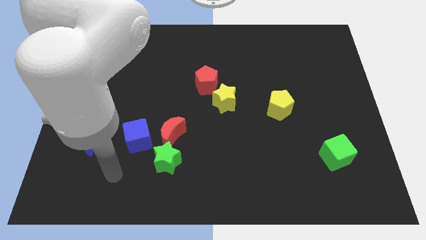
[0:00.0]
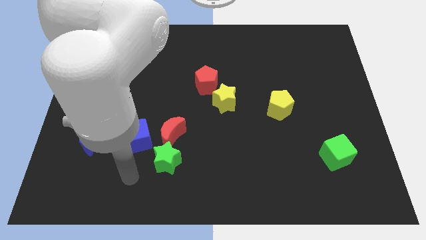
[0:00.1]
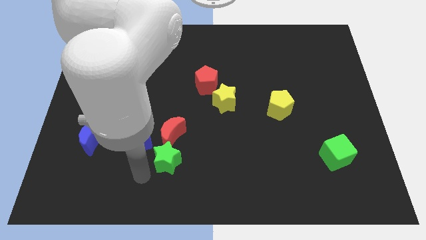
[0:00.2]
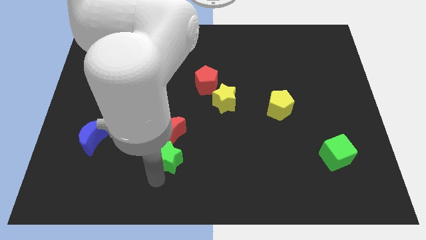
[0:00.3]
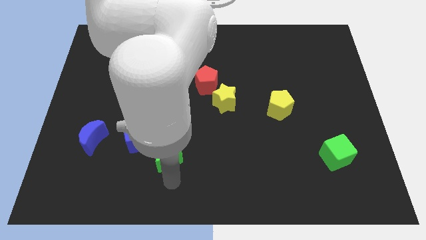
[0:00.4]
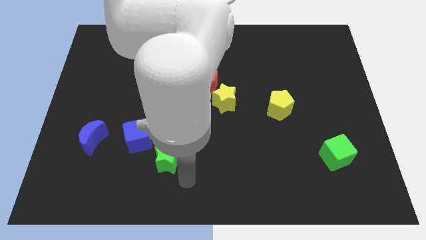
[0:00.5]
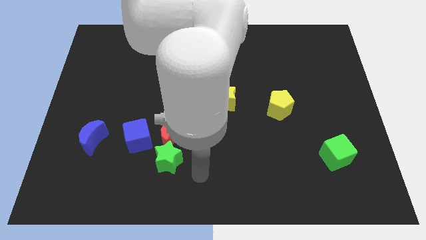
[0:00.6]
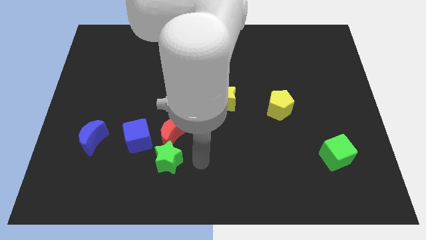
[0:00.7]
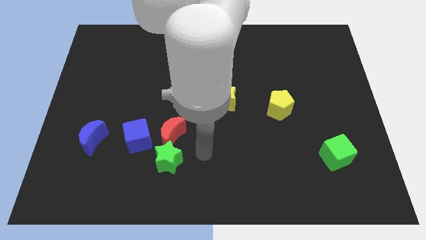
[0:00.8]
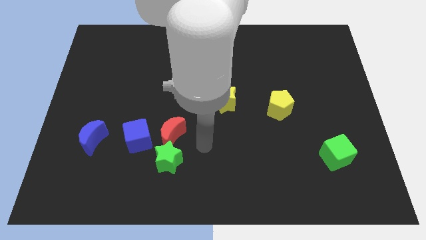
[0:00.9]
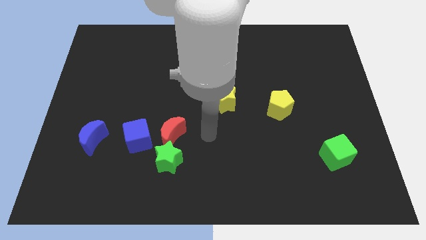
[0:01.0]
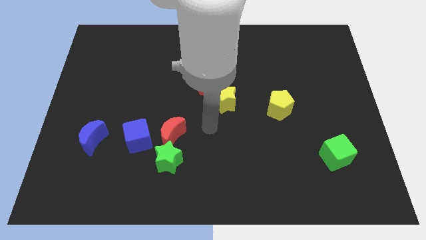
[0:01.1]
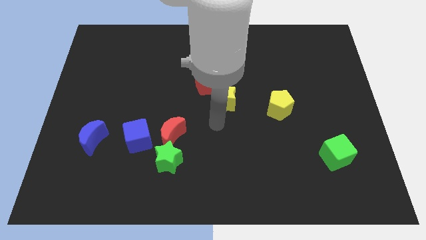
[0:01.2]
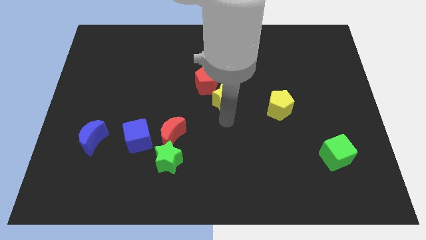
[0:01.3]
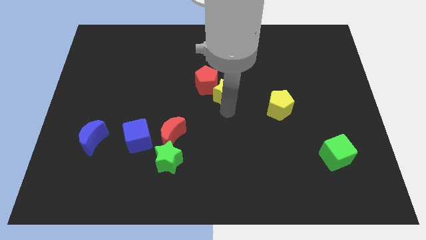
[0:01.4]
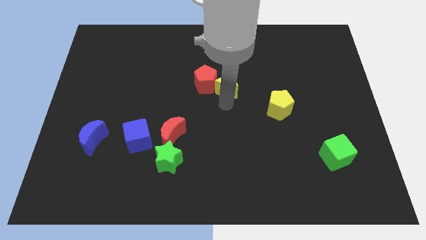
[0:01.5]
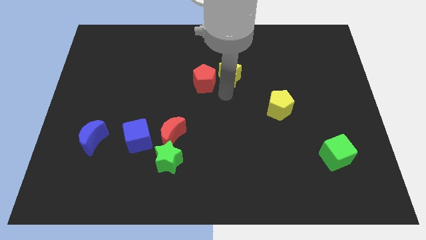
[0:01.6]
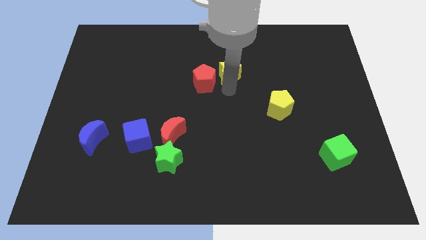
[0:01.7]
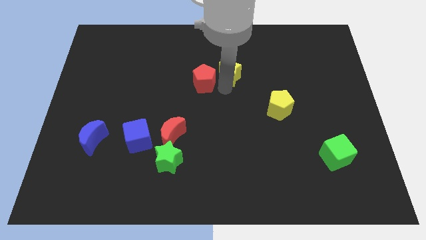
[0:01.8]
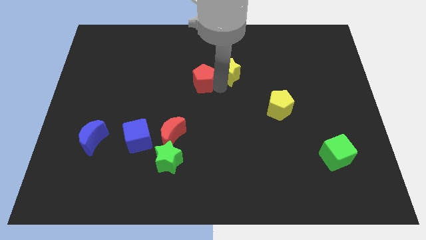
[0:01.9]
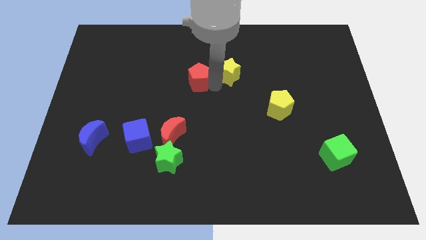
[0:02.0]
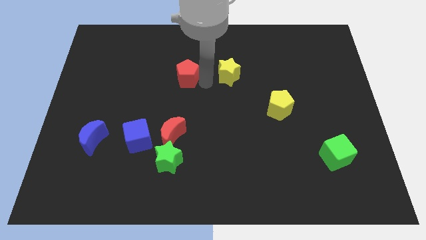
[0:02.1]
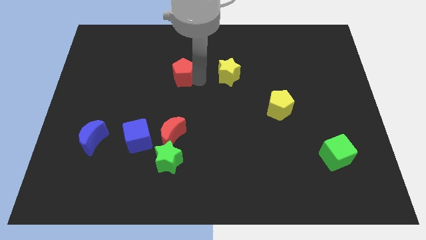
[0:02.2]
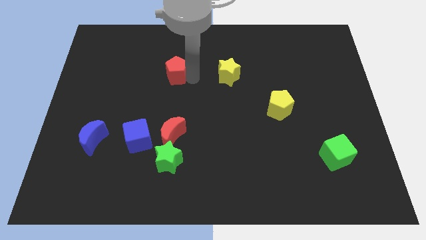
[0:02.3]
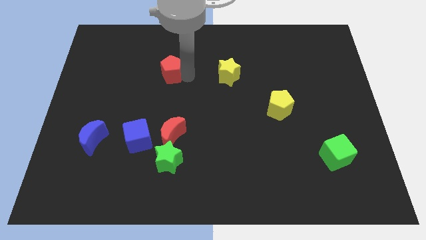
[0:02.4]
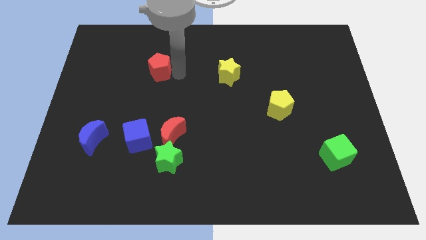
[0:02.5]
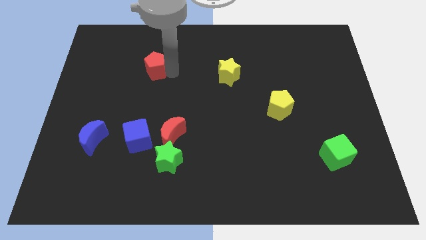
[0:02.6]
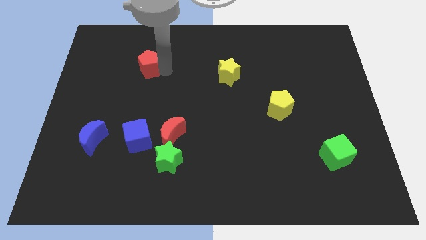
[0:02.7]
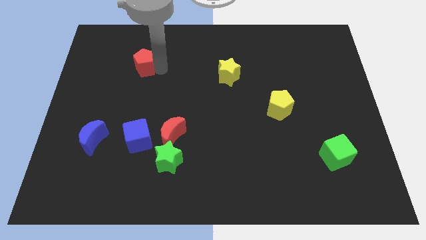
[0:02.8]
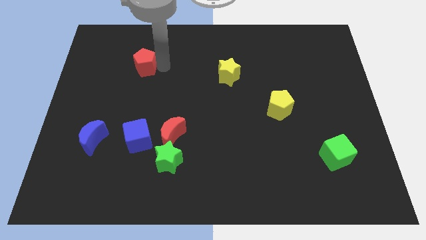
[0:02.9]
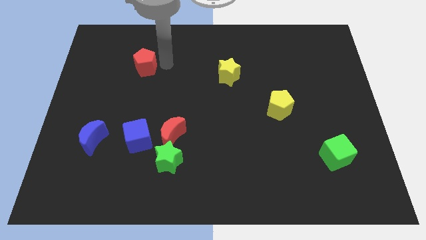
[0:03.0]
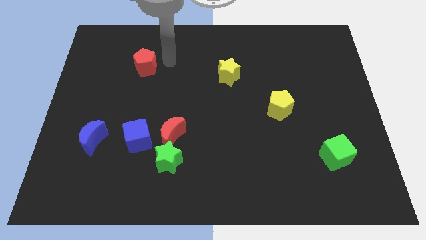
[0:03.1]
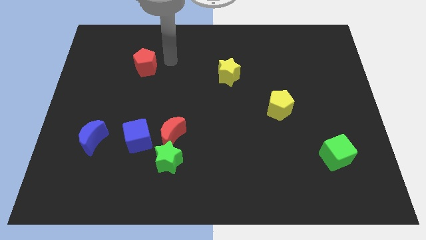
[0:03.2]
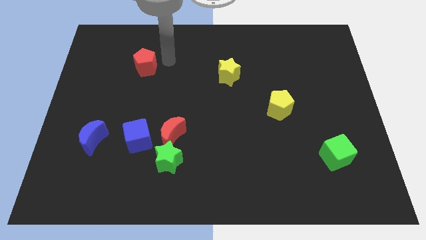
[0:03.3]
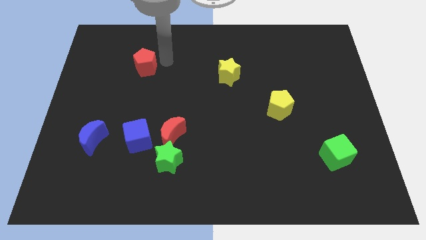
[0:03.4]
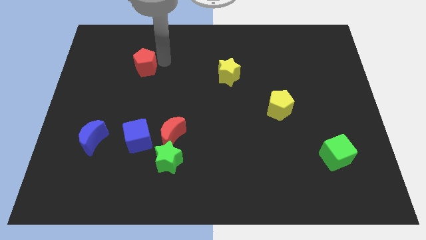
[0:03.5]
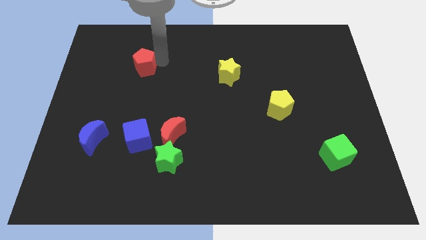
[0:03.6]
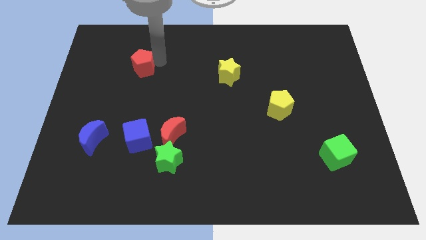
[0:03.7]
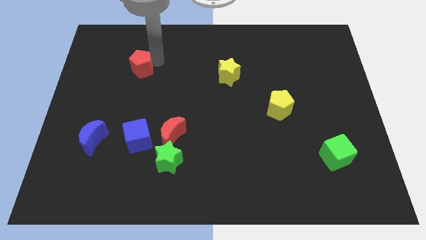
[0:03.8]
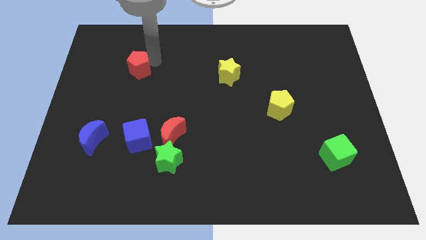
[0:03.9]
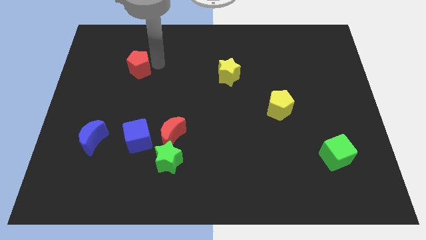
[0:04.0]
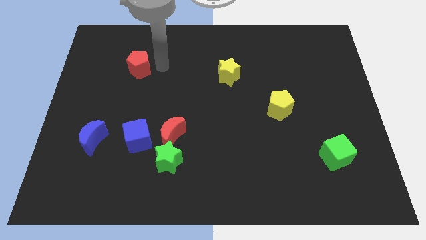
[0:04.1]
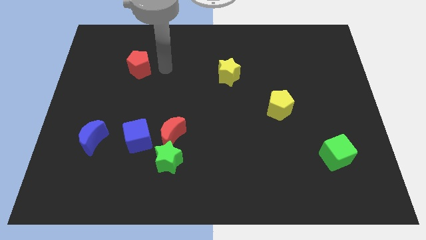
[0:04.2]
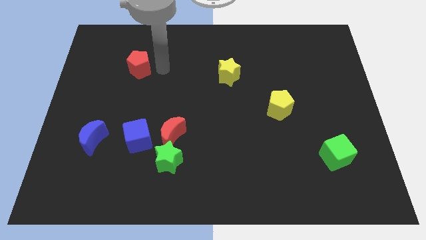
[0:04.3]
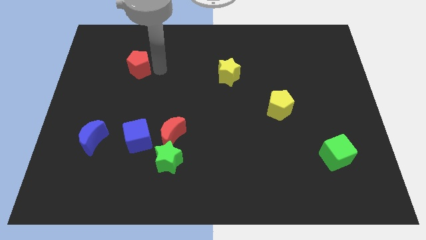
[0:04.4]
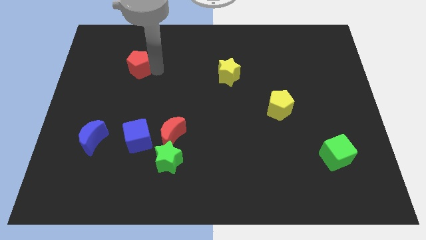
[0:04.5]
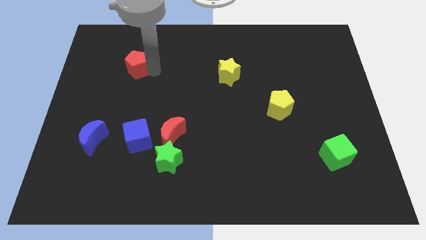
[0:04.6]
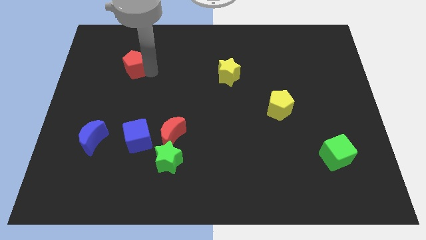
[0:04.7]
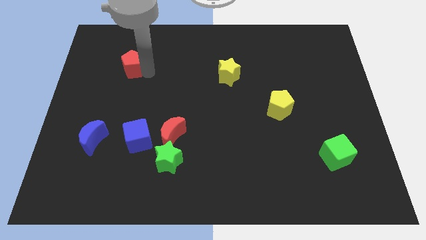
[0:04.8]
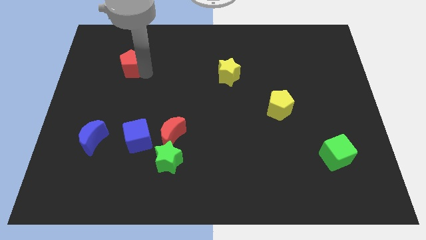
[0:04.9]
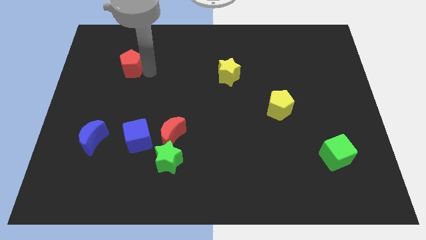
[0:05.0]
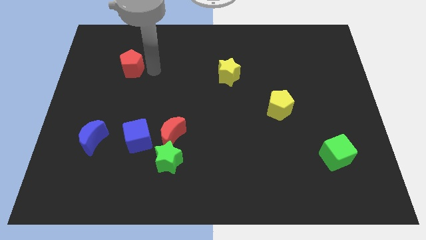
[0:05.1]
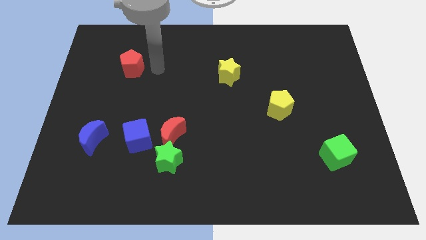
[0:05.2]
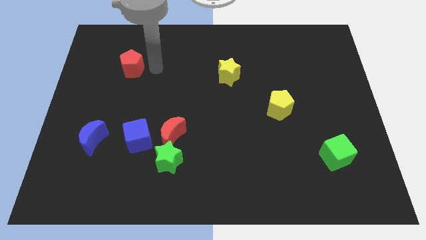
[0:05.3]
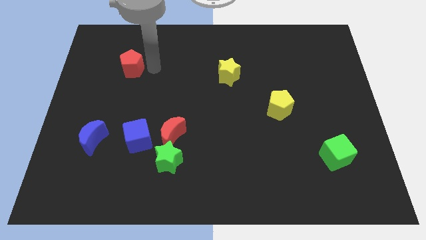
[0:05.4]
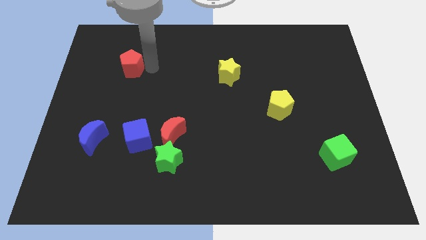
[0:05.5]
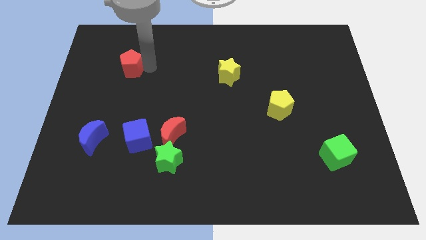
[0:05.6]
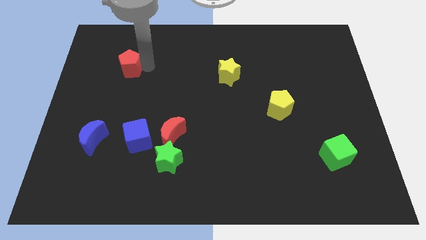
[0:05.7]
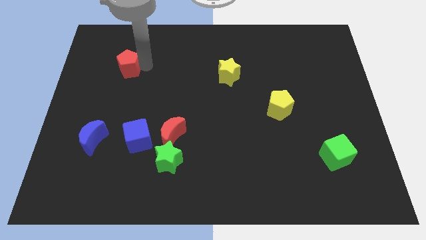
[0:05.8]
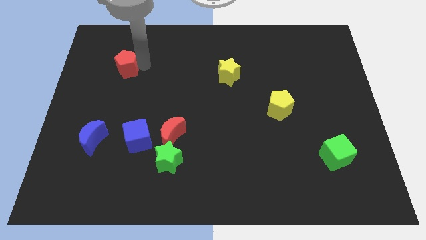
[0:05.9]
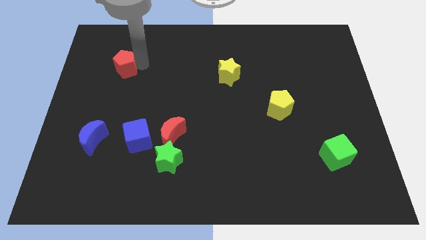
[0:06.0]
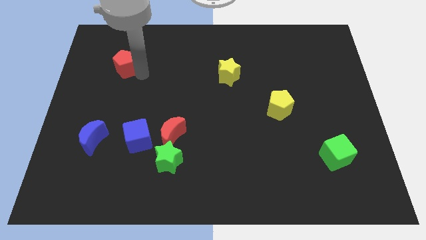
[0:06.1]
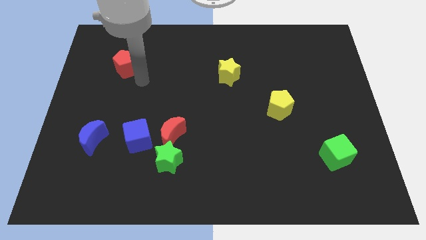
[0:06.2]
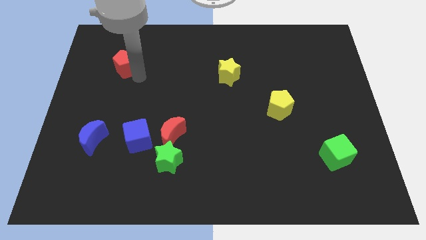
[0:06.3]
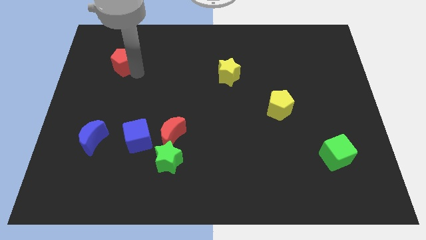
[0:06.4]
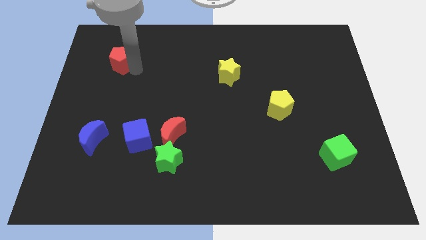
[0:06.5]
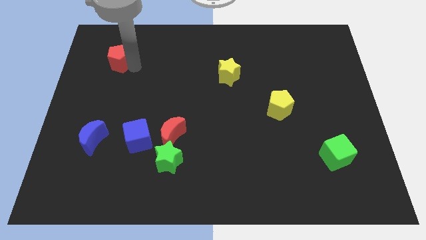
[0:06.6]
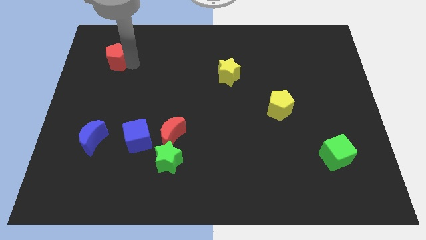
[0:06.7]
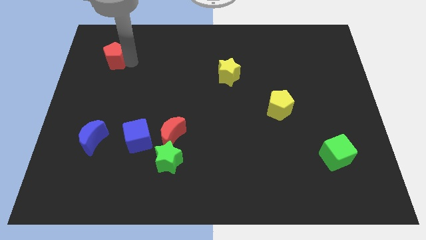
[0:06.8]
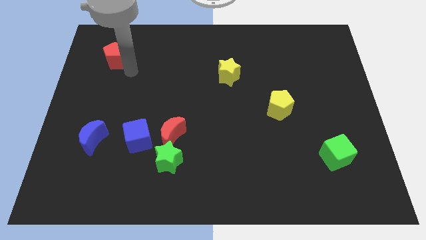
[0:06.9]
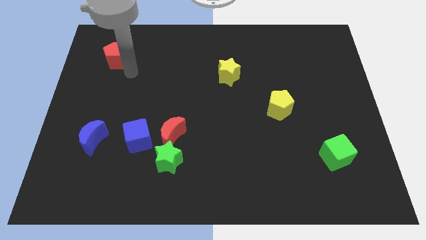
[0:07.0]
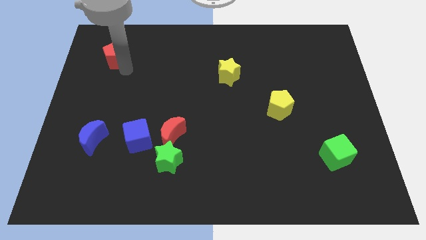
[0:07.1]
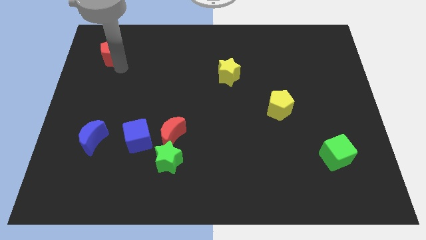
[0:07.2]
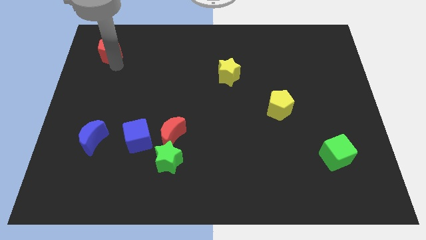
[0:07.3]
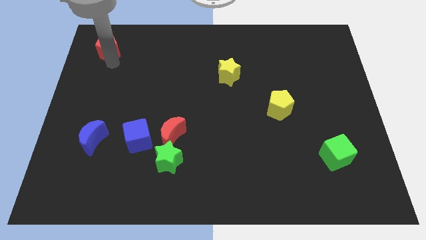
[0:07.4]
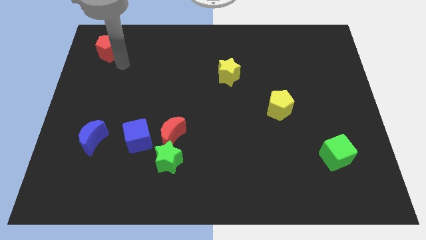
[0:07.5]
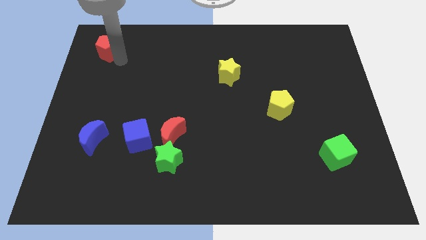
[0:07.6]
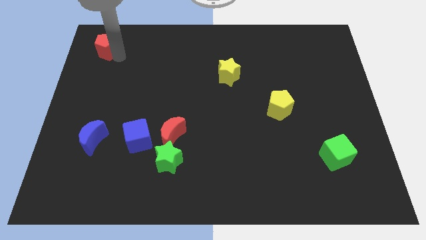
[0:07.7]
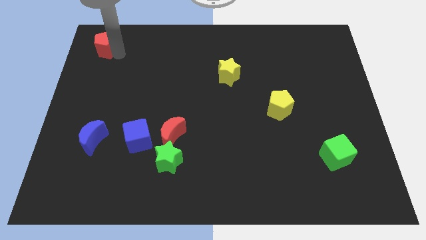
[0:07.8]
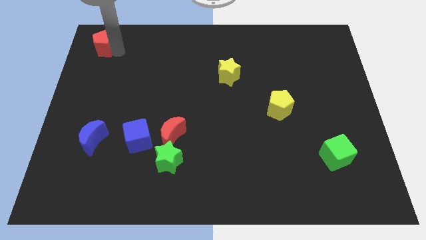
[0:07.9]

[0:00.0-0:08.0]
move the red pentagon to the top left of the board
